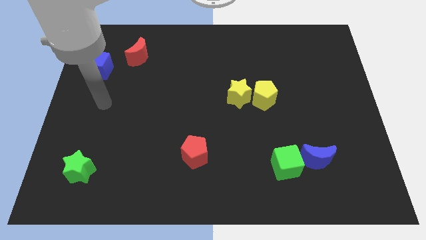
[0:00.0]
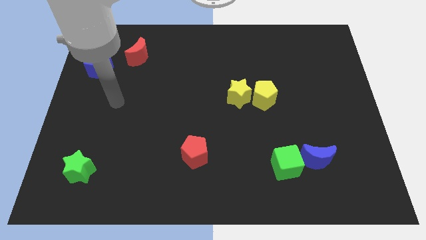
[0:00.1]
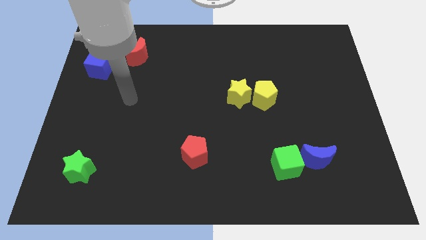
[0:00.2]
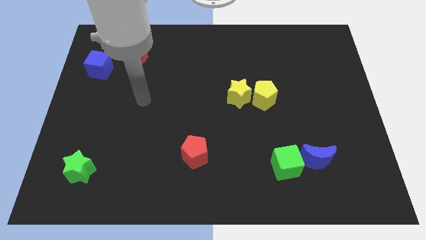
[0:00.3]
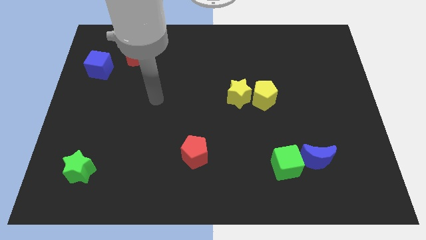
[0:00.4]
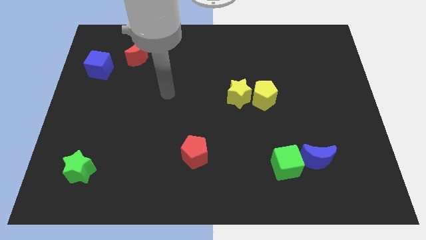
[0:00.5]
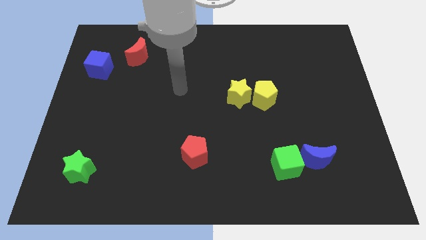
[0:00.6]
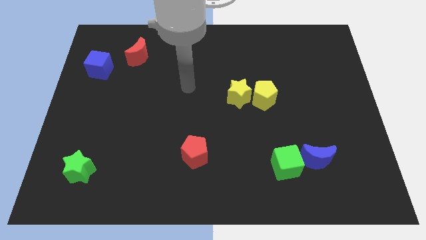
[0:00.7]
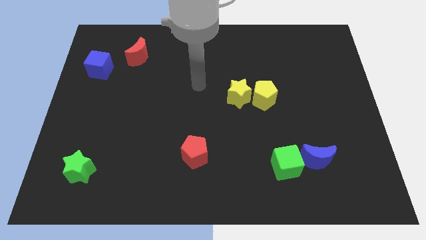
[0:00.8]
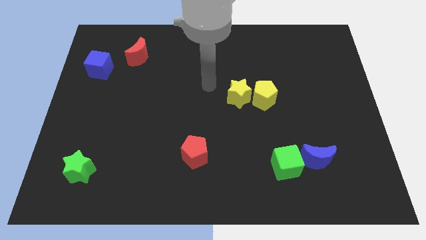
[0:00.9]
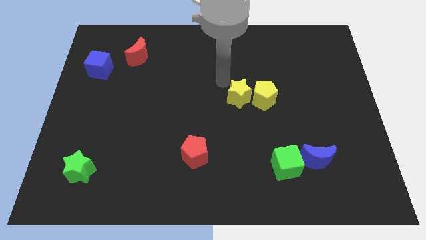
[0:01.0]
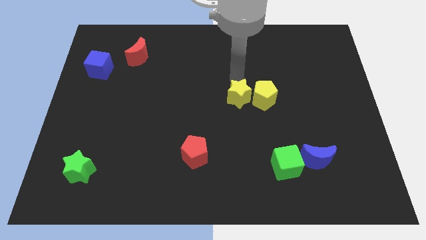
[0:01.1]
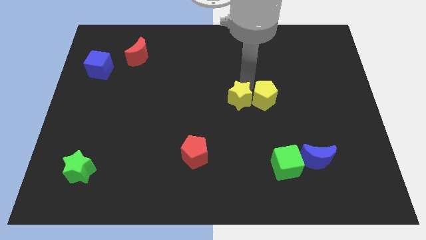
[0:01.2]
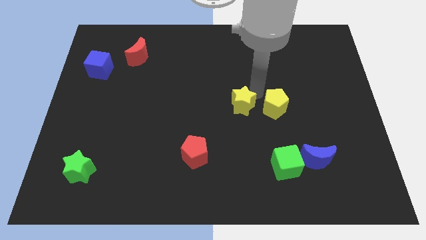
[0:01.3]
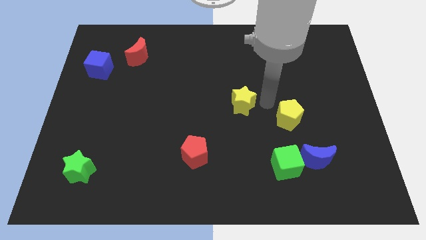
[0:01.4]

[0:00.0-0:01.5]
separate the yellow star from the yellow pentagon

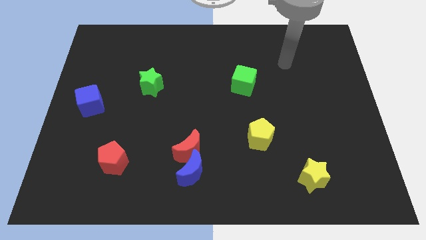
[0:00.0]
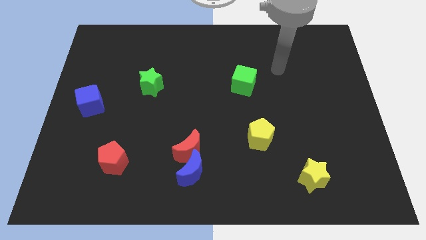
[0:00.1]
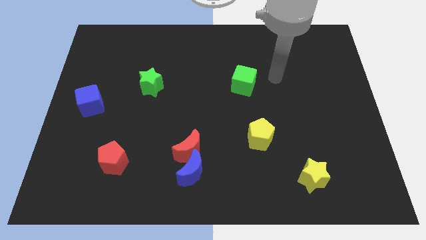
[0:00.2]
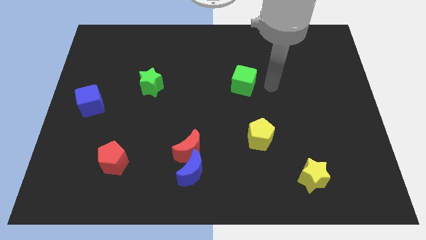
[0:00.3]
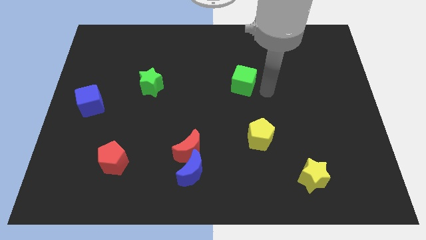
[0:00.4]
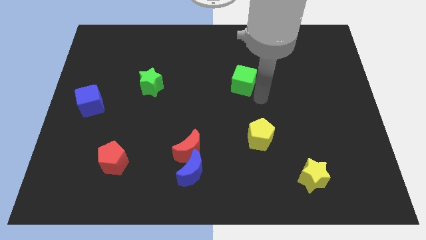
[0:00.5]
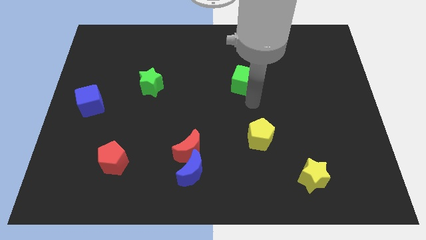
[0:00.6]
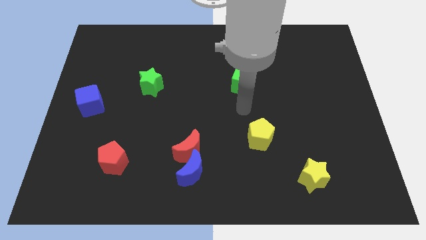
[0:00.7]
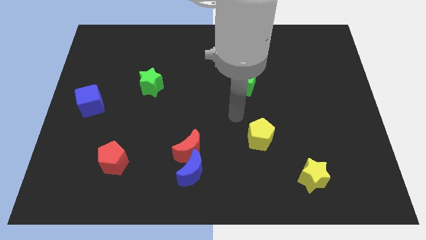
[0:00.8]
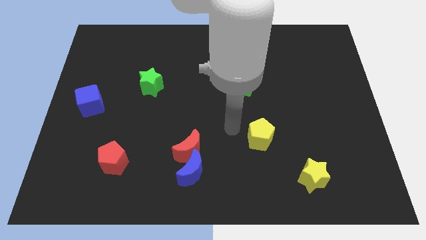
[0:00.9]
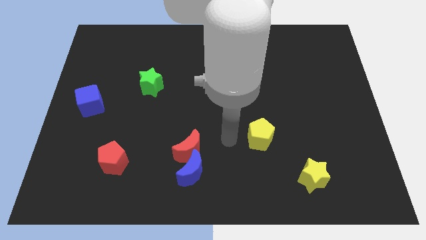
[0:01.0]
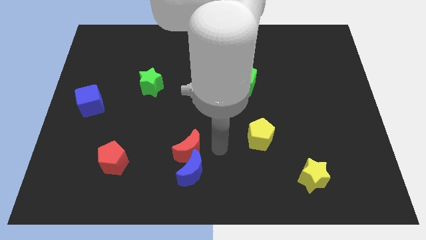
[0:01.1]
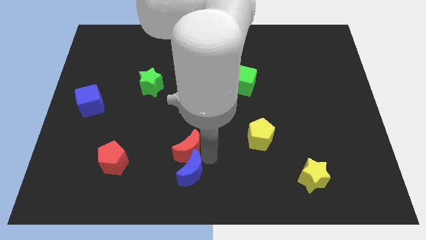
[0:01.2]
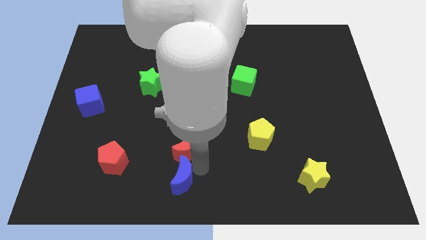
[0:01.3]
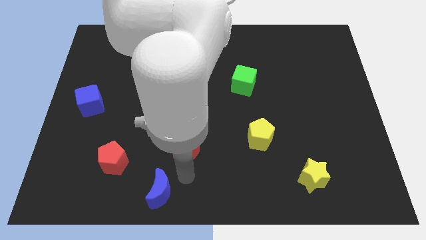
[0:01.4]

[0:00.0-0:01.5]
pull the red moon apart from the blue moon

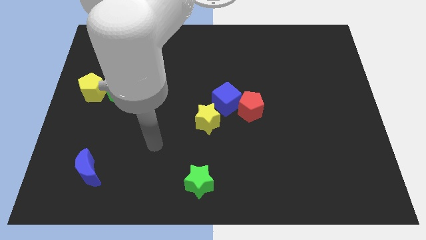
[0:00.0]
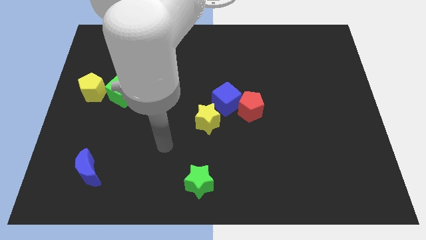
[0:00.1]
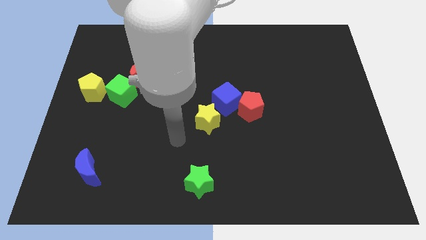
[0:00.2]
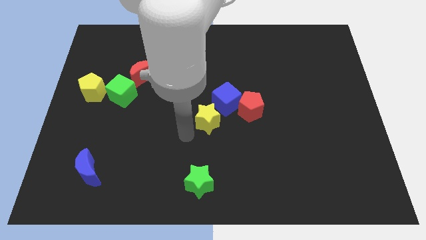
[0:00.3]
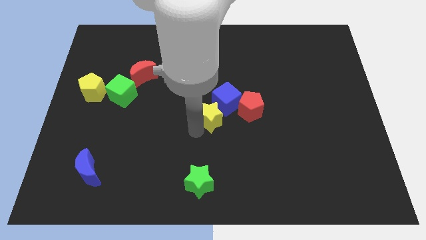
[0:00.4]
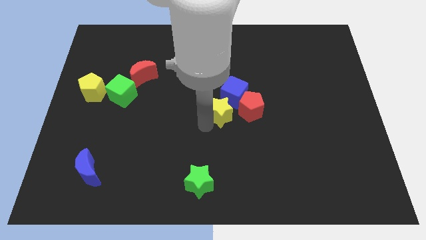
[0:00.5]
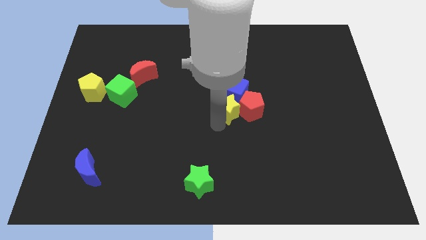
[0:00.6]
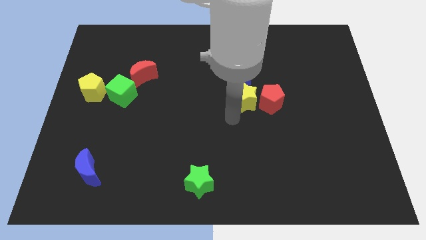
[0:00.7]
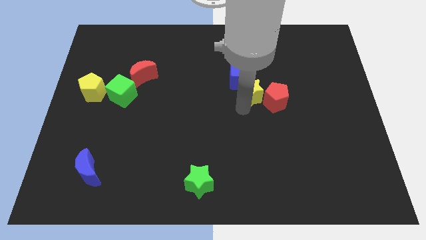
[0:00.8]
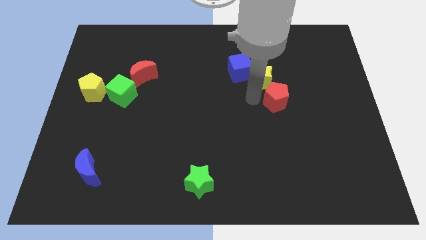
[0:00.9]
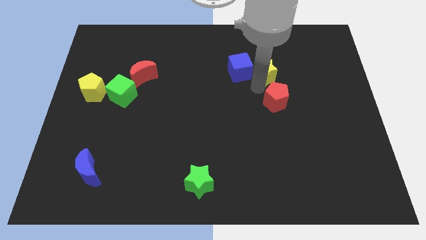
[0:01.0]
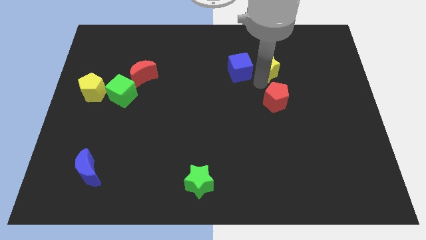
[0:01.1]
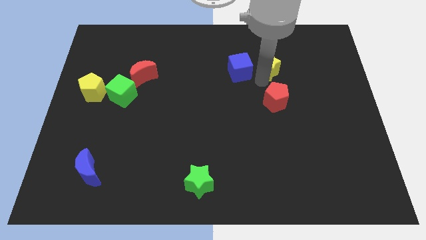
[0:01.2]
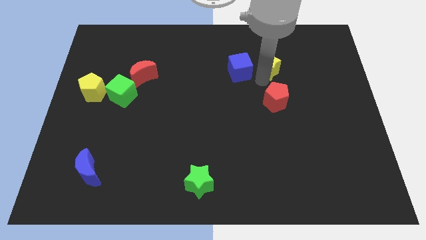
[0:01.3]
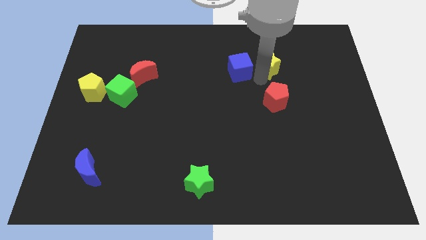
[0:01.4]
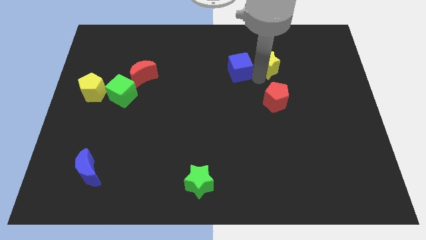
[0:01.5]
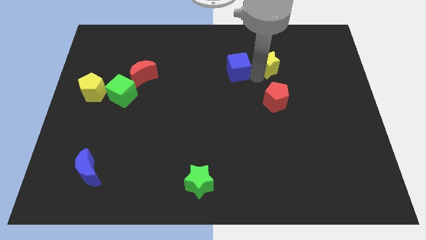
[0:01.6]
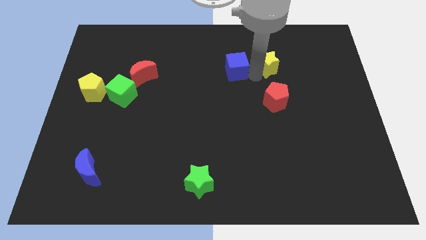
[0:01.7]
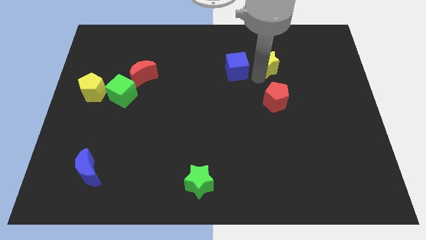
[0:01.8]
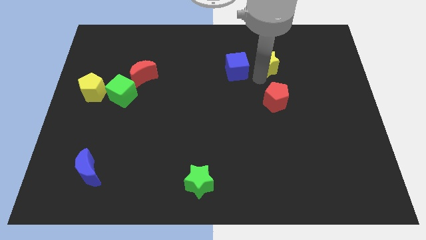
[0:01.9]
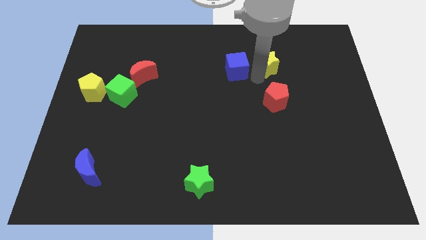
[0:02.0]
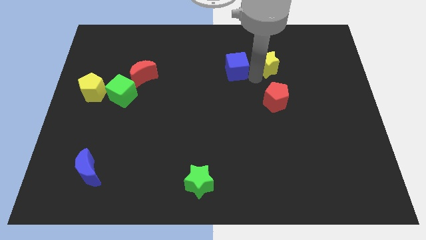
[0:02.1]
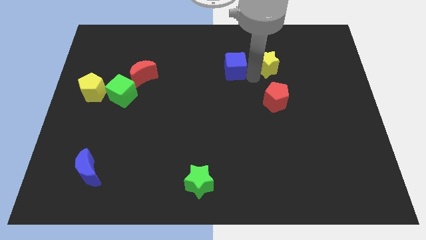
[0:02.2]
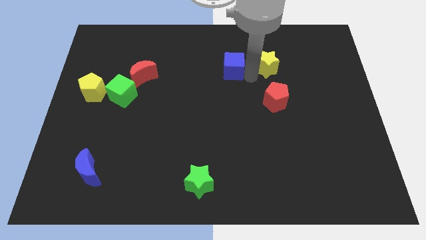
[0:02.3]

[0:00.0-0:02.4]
pull the blue cube apart from the red pentagon and yellow star

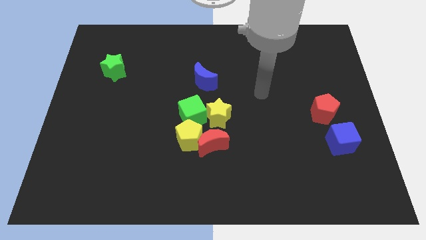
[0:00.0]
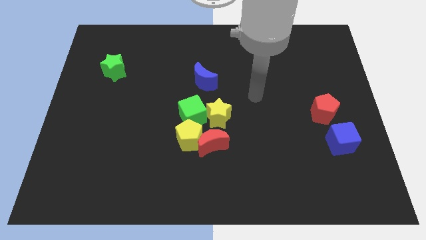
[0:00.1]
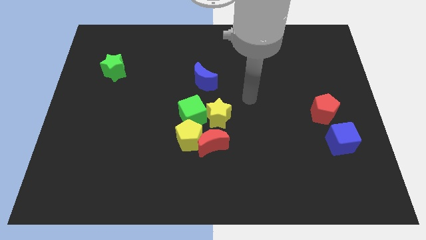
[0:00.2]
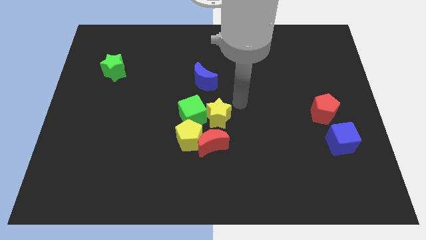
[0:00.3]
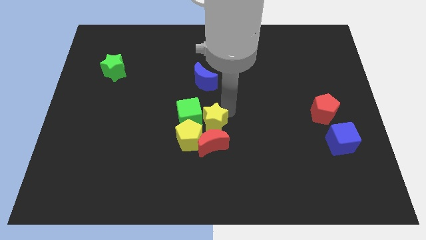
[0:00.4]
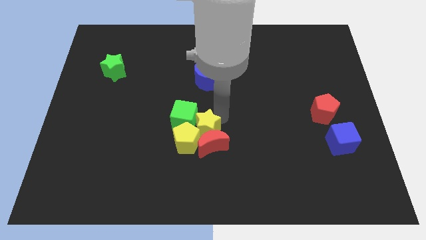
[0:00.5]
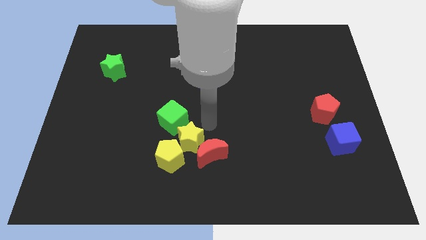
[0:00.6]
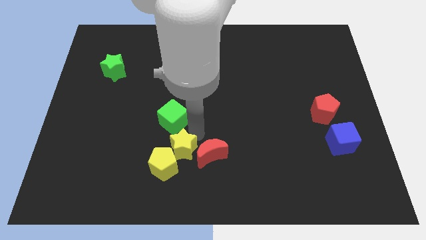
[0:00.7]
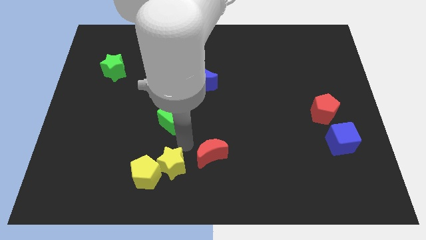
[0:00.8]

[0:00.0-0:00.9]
pull the yellow pentagon apart from the group of blocks

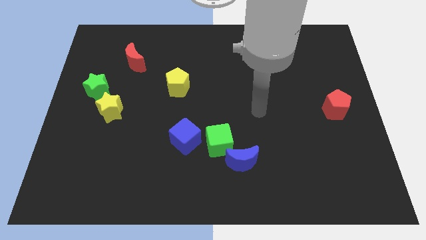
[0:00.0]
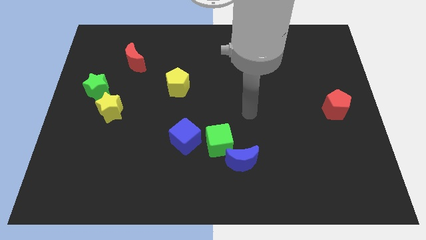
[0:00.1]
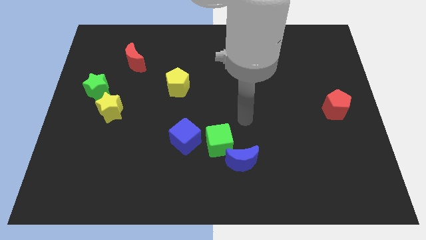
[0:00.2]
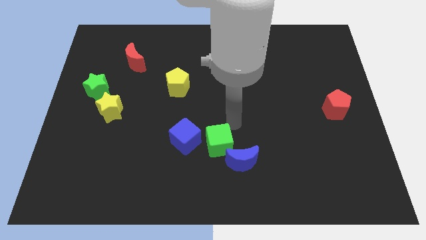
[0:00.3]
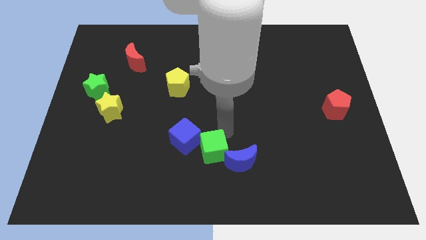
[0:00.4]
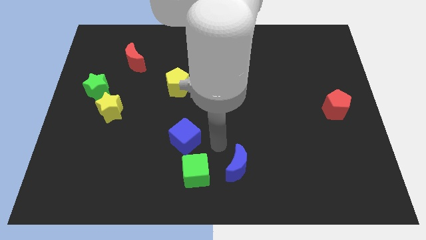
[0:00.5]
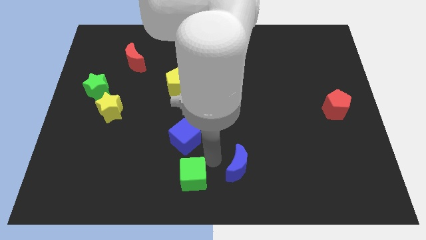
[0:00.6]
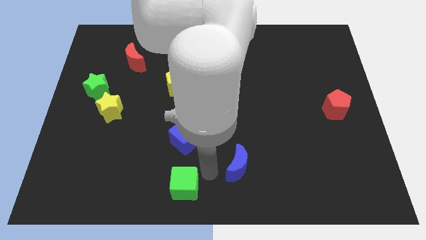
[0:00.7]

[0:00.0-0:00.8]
pull the blue moon apart from the green cube

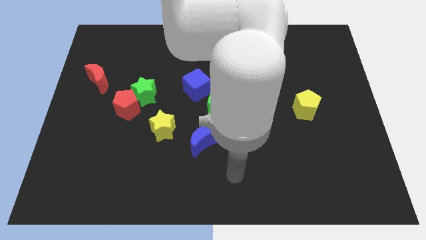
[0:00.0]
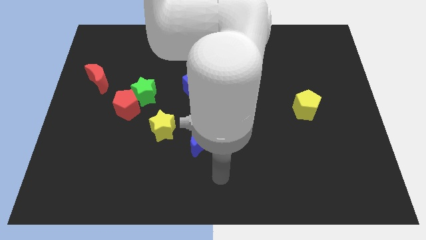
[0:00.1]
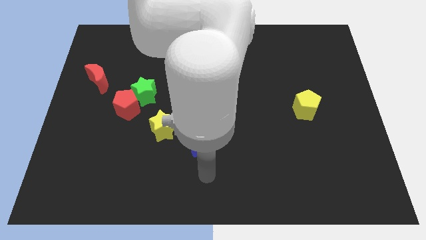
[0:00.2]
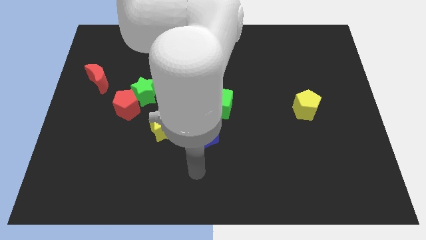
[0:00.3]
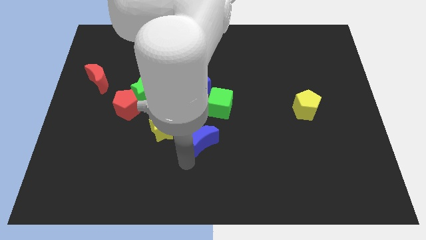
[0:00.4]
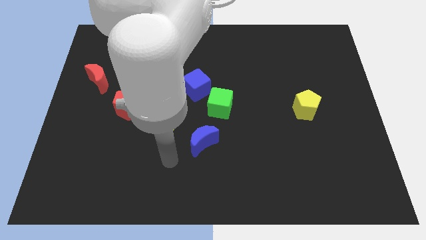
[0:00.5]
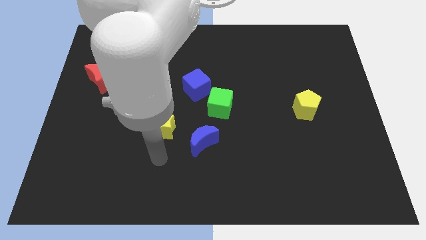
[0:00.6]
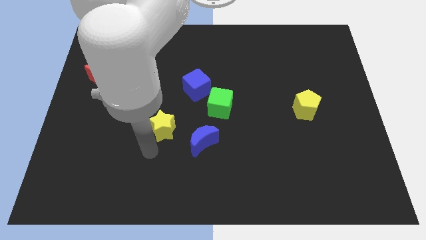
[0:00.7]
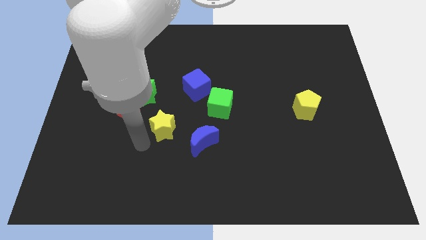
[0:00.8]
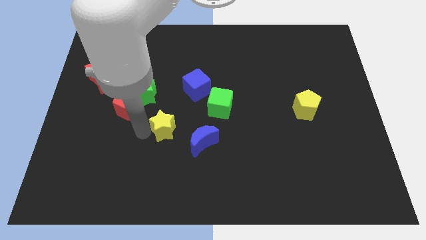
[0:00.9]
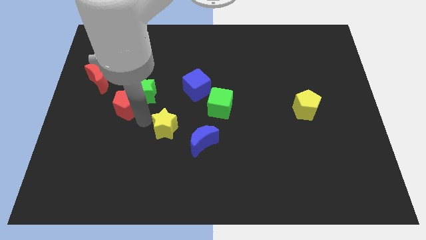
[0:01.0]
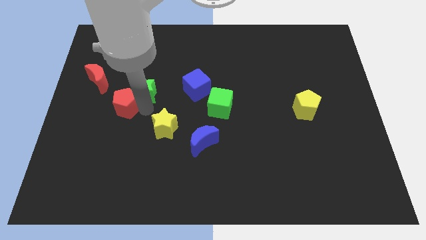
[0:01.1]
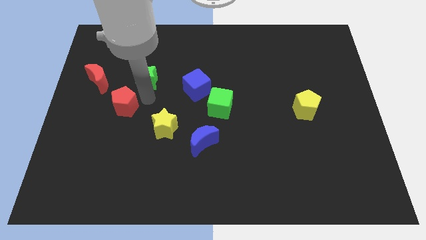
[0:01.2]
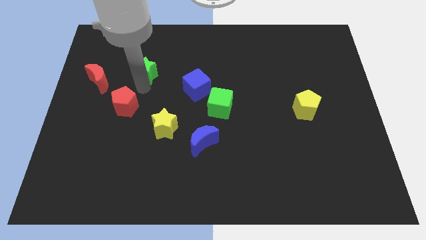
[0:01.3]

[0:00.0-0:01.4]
move the red pentagon away from the green star

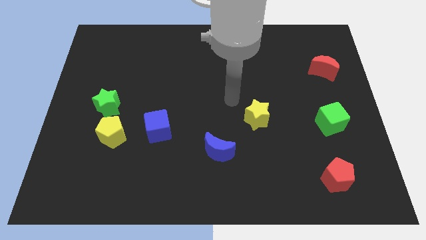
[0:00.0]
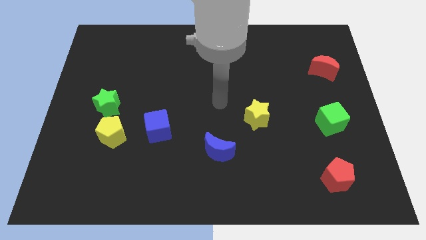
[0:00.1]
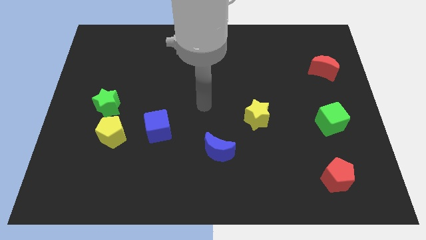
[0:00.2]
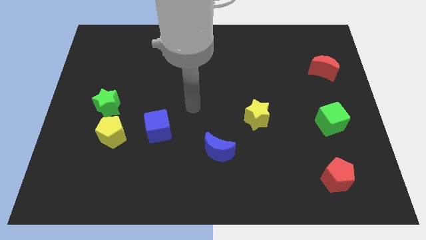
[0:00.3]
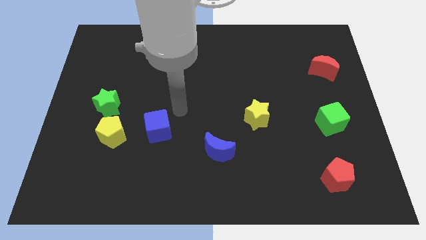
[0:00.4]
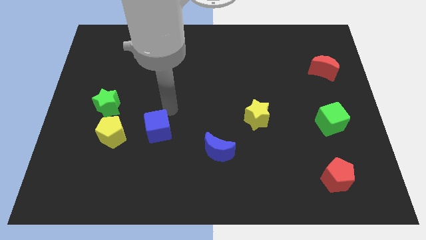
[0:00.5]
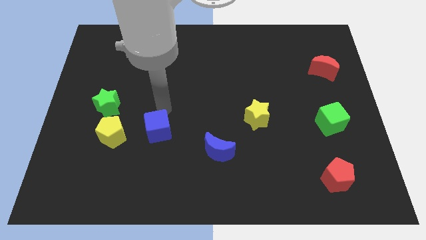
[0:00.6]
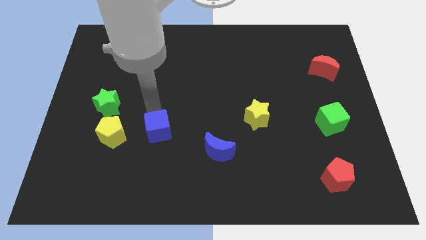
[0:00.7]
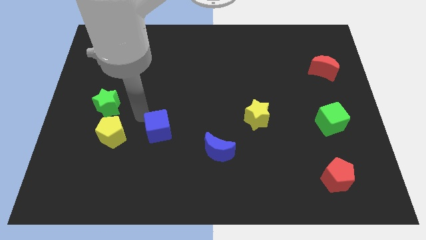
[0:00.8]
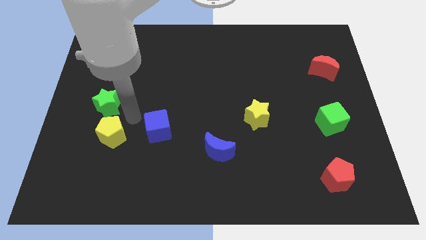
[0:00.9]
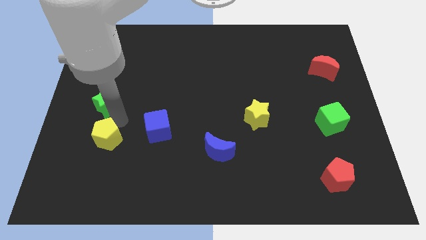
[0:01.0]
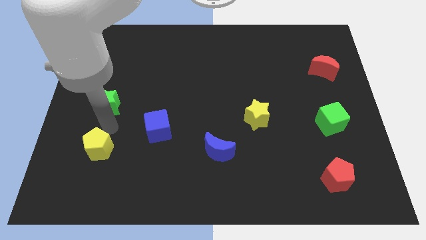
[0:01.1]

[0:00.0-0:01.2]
move the green star away from the yellow pentagon
